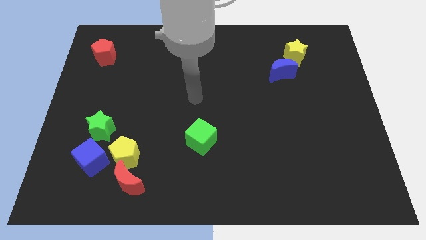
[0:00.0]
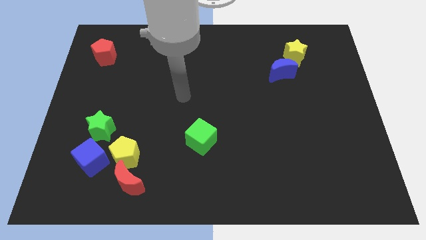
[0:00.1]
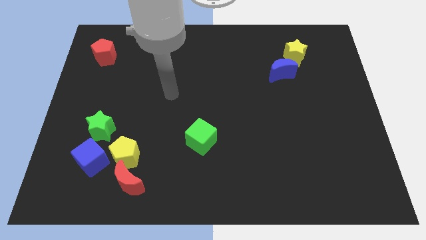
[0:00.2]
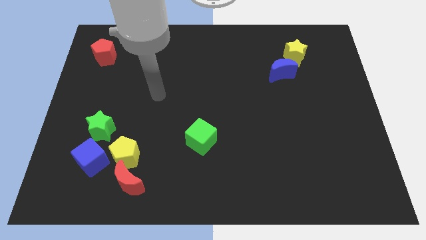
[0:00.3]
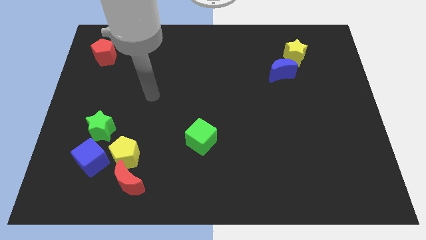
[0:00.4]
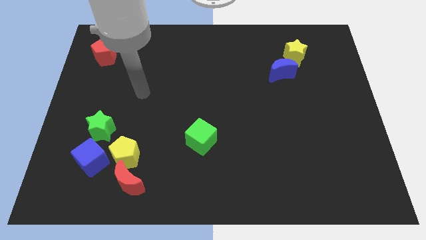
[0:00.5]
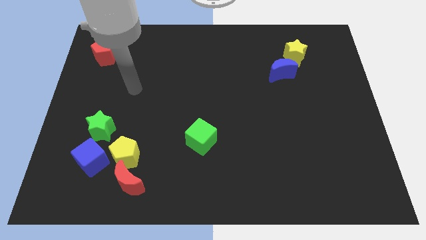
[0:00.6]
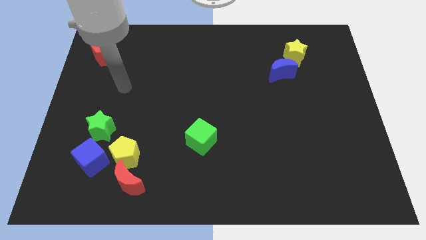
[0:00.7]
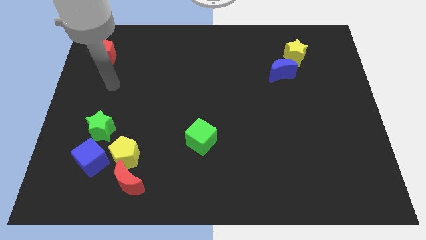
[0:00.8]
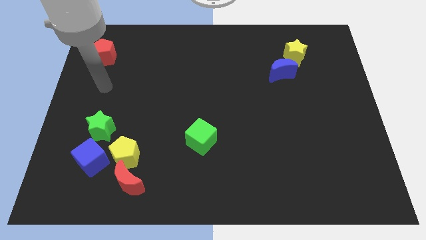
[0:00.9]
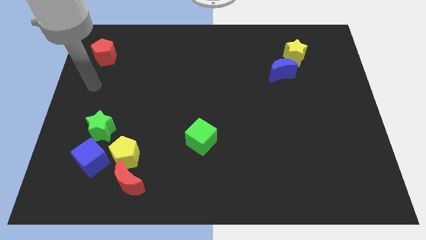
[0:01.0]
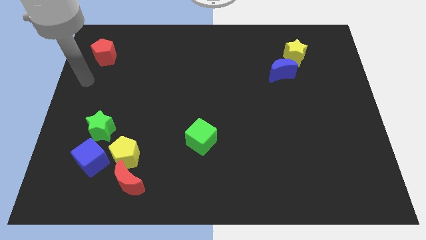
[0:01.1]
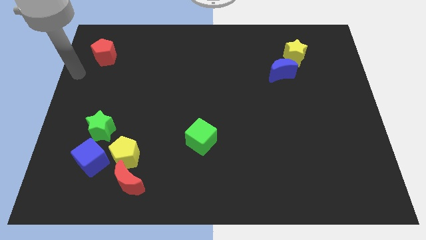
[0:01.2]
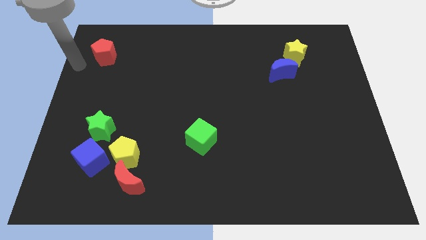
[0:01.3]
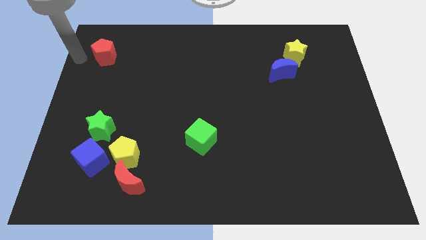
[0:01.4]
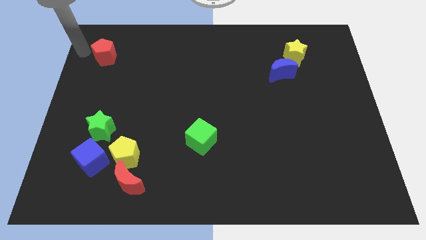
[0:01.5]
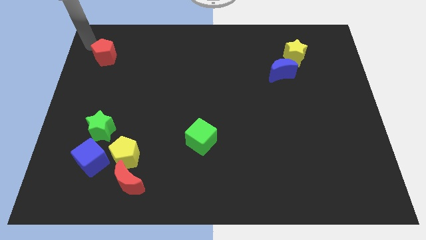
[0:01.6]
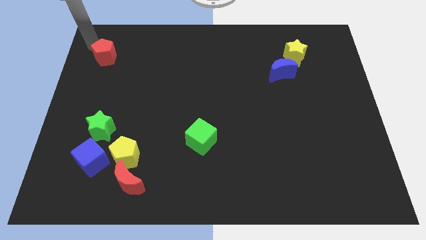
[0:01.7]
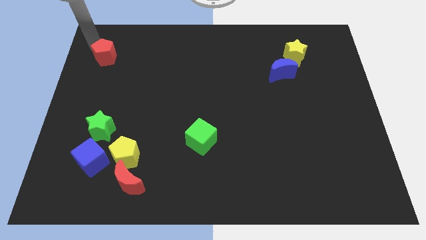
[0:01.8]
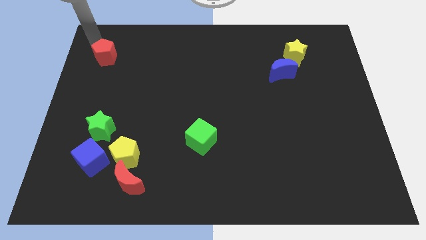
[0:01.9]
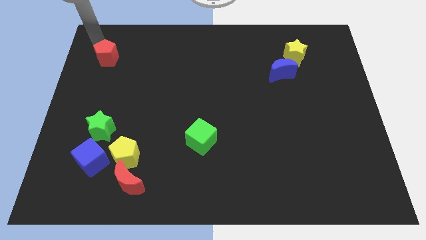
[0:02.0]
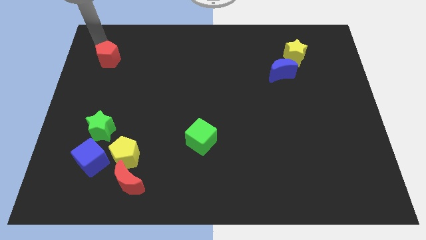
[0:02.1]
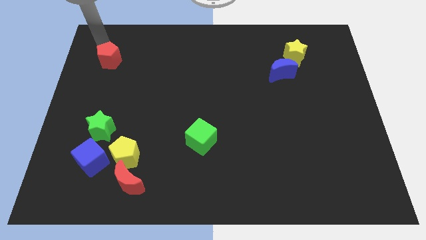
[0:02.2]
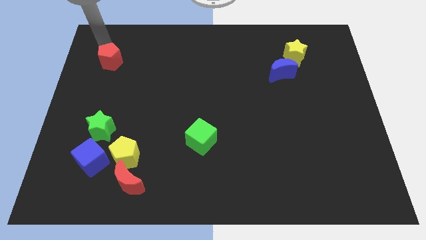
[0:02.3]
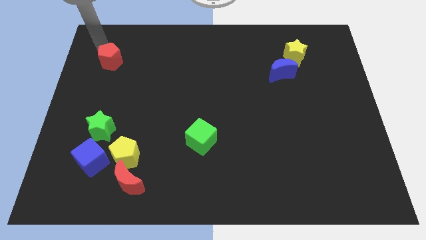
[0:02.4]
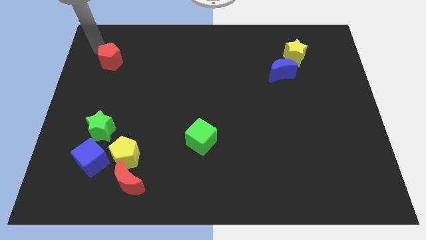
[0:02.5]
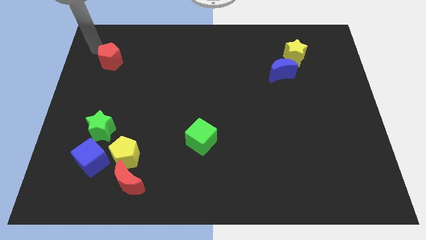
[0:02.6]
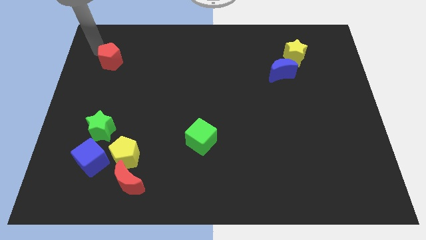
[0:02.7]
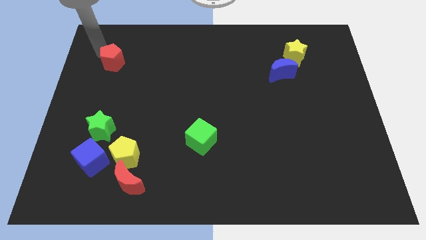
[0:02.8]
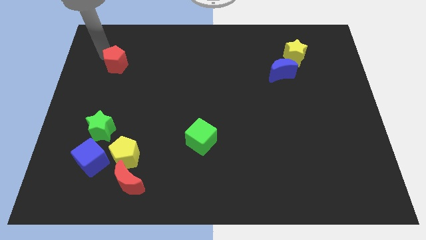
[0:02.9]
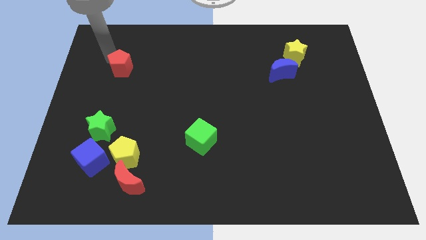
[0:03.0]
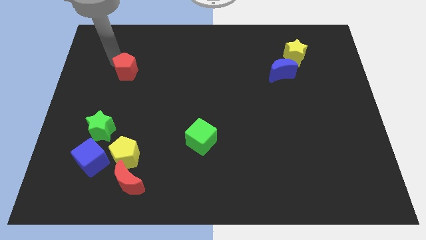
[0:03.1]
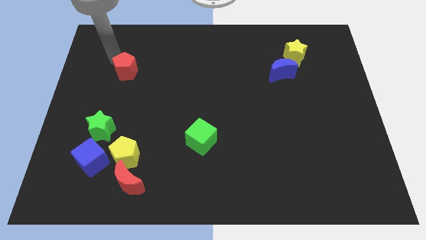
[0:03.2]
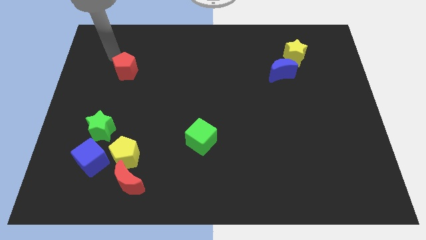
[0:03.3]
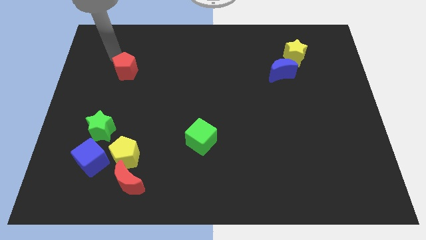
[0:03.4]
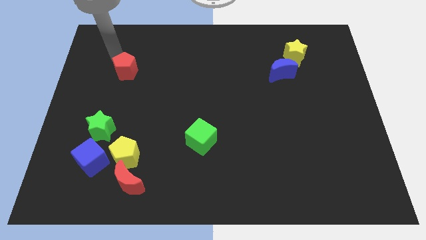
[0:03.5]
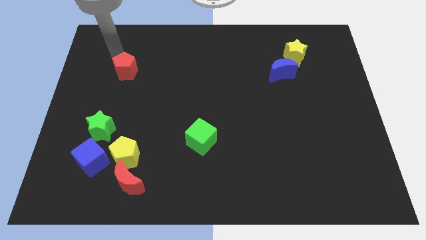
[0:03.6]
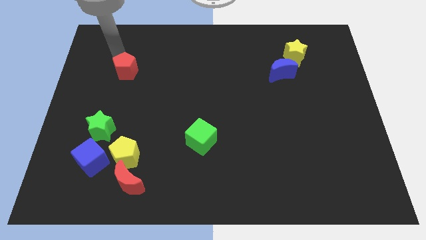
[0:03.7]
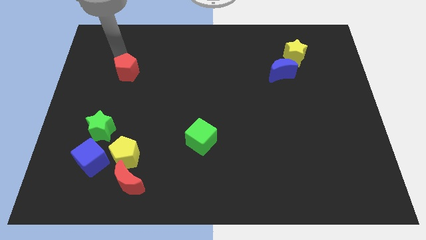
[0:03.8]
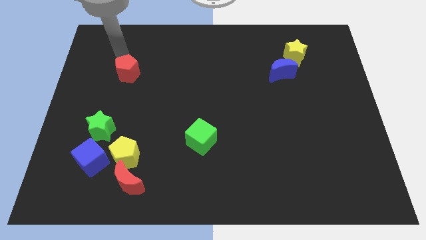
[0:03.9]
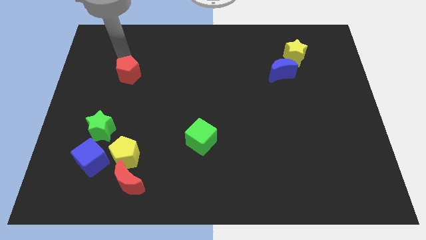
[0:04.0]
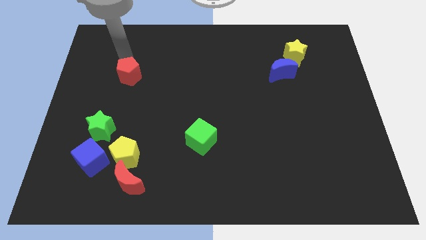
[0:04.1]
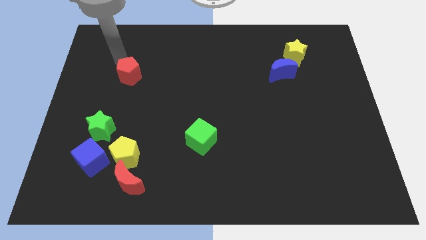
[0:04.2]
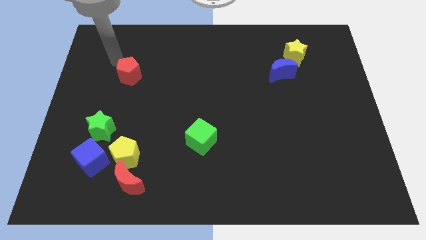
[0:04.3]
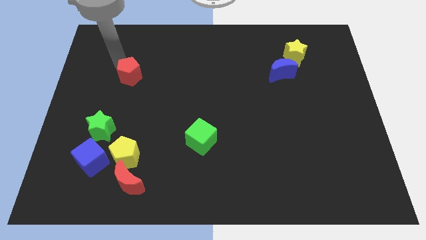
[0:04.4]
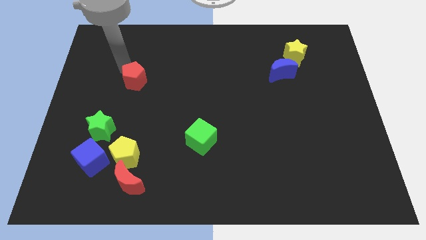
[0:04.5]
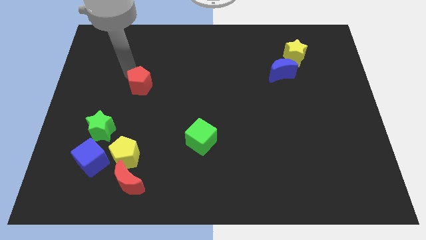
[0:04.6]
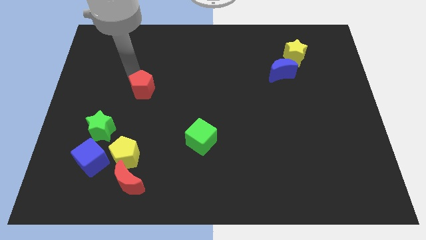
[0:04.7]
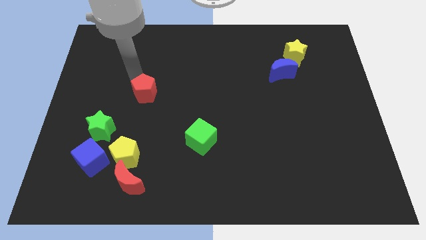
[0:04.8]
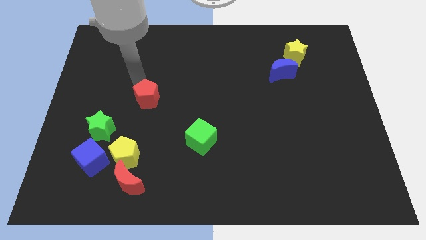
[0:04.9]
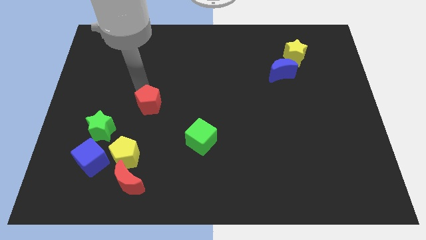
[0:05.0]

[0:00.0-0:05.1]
slide the red pentagon downwards and to the right diagonally

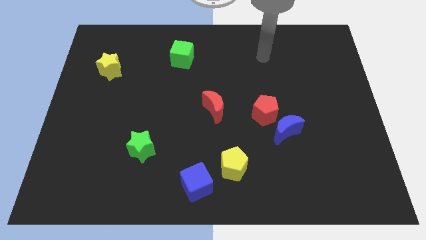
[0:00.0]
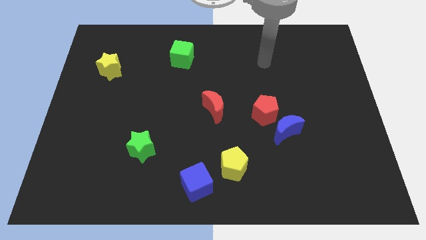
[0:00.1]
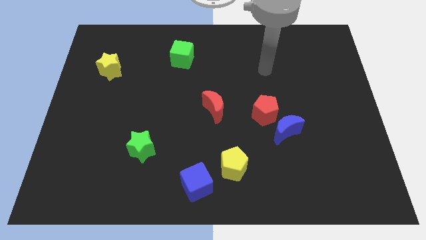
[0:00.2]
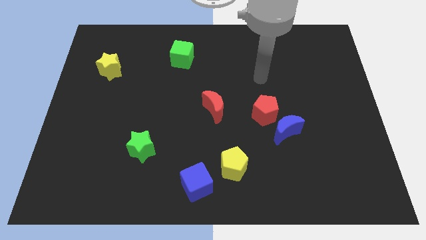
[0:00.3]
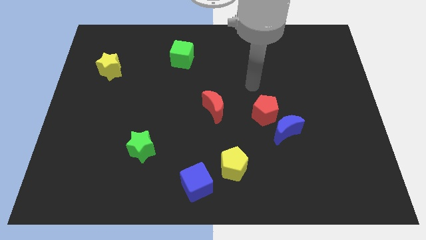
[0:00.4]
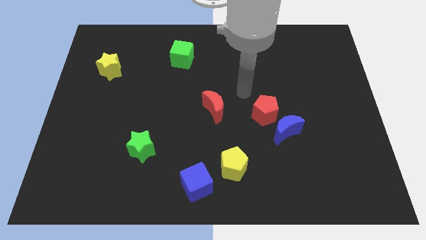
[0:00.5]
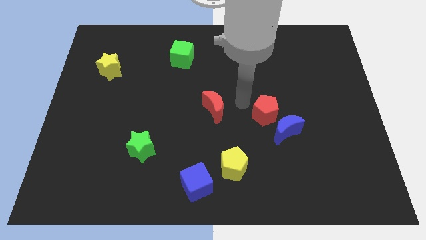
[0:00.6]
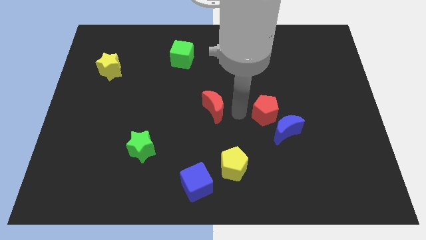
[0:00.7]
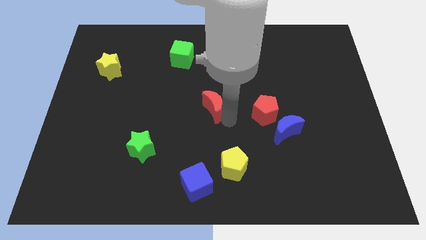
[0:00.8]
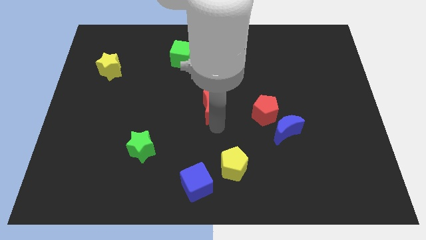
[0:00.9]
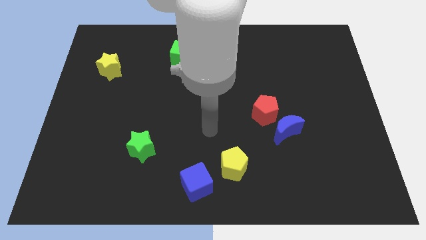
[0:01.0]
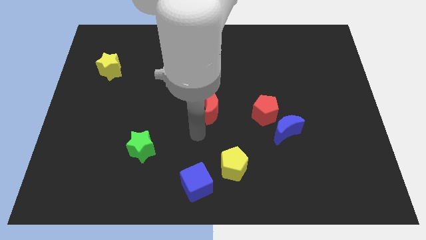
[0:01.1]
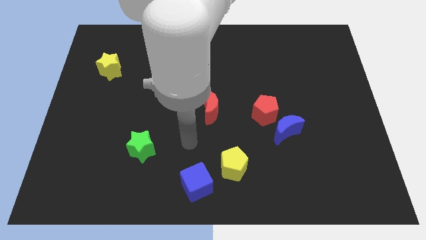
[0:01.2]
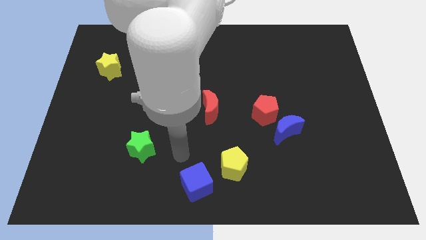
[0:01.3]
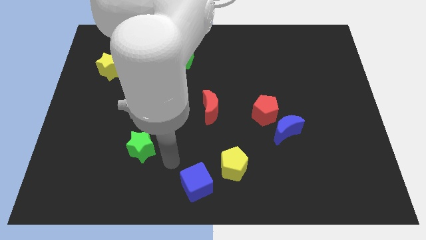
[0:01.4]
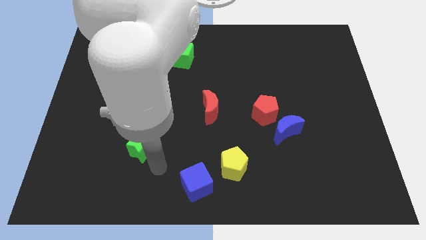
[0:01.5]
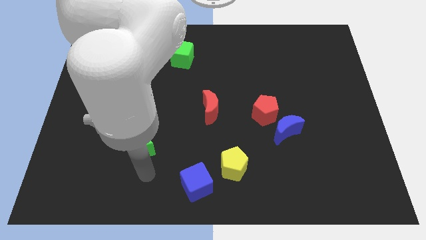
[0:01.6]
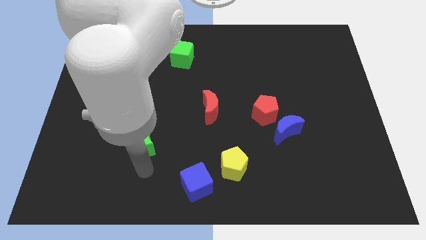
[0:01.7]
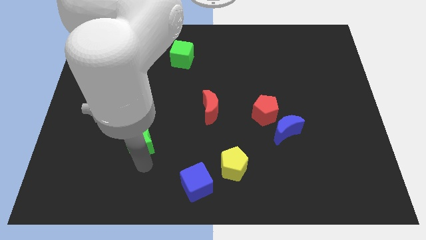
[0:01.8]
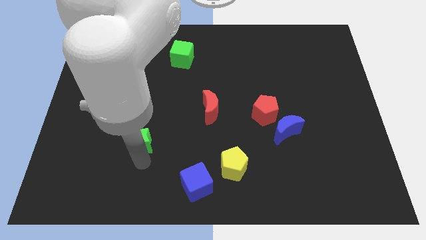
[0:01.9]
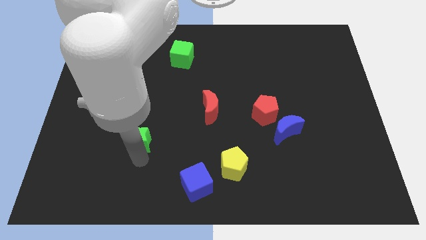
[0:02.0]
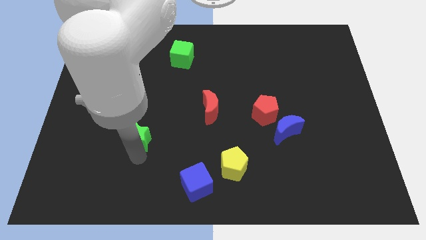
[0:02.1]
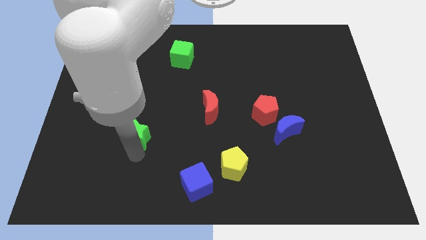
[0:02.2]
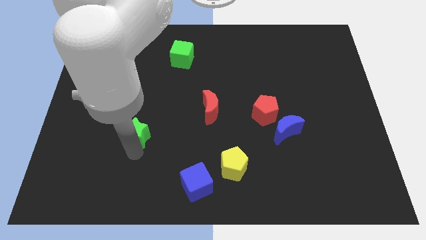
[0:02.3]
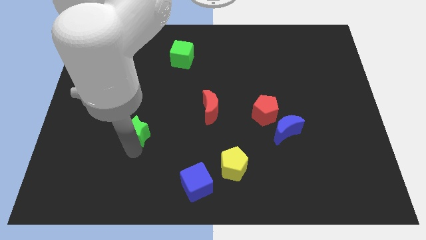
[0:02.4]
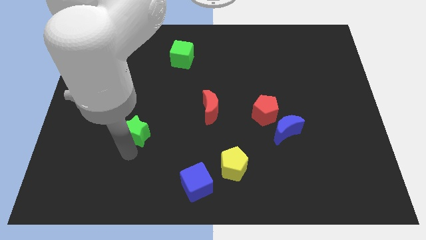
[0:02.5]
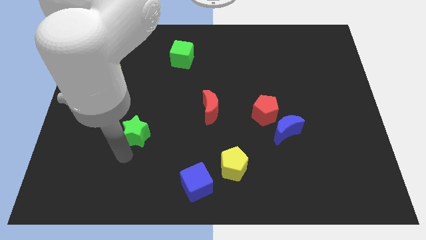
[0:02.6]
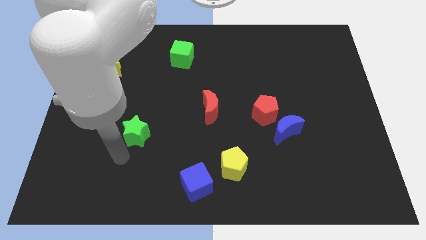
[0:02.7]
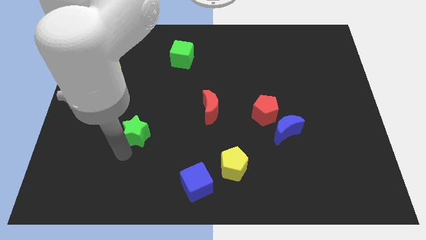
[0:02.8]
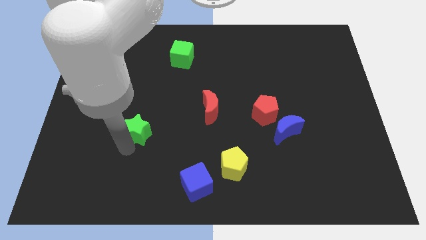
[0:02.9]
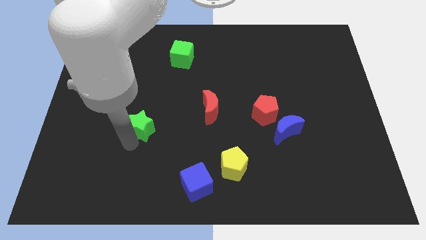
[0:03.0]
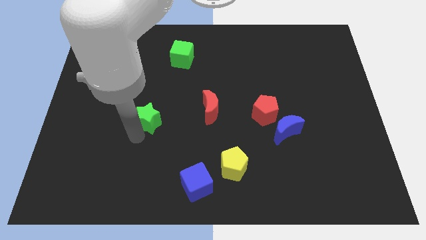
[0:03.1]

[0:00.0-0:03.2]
slide the green star upwards a little bit

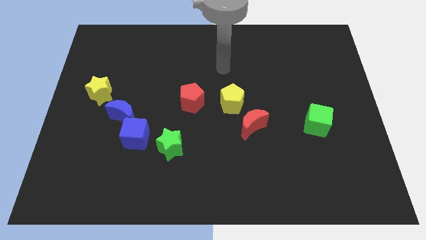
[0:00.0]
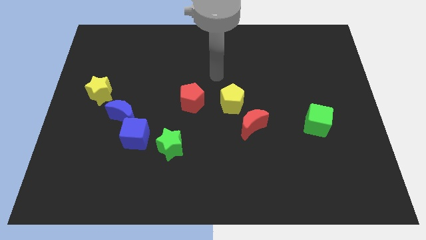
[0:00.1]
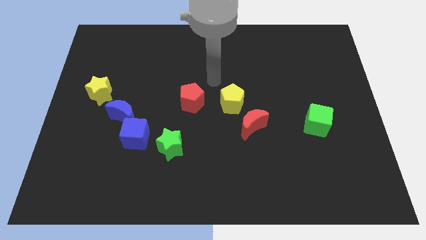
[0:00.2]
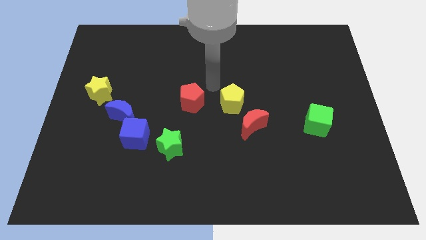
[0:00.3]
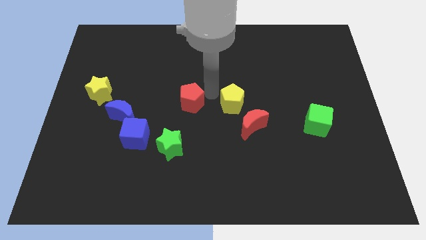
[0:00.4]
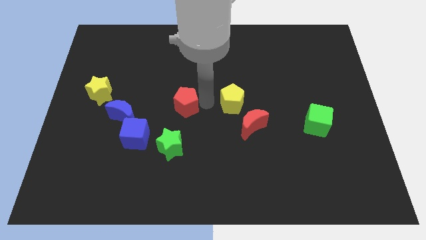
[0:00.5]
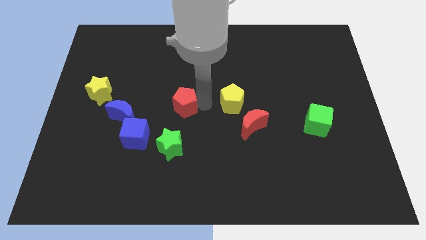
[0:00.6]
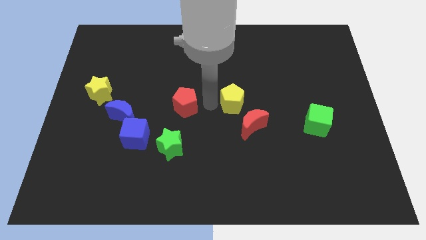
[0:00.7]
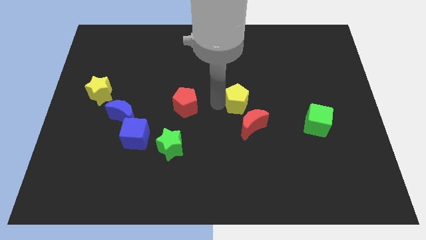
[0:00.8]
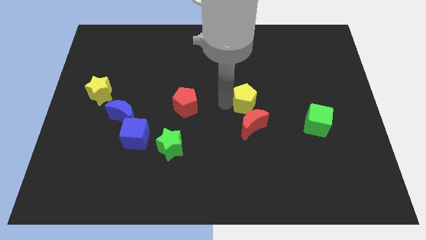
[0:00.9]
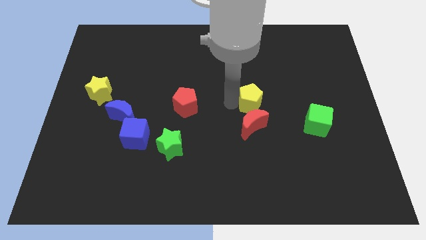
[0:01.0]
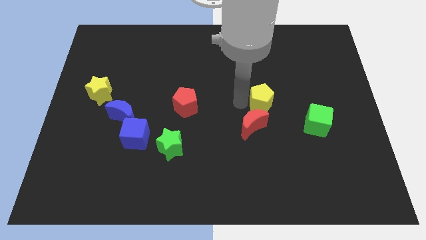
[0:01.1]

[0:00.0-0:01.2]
move the yellow pentagon a bit to the right
